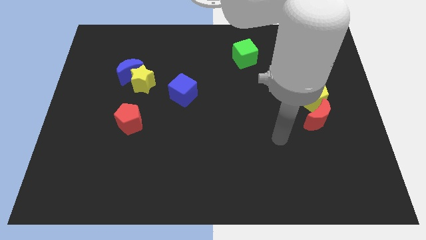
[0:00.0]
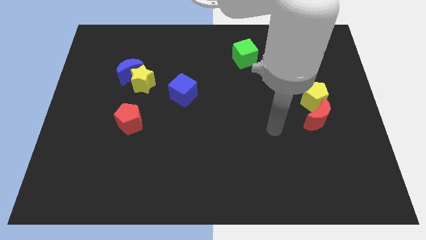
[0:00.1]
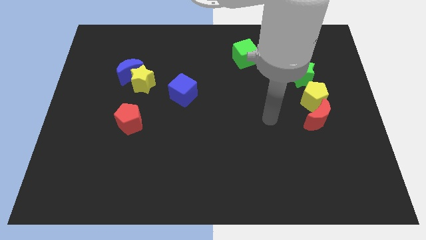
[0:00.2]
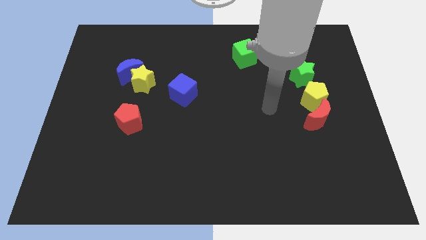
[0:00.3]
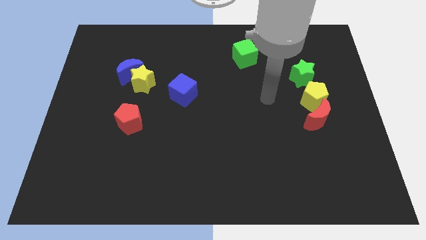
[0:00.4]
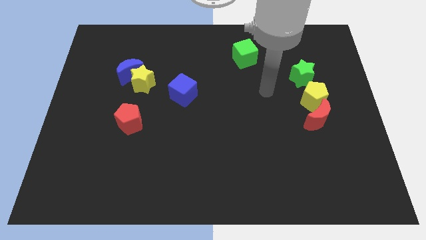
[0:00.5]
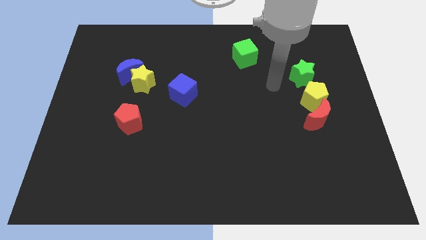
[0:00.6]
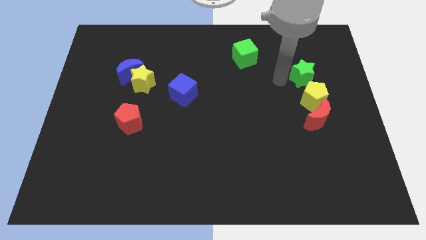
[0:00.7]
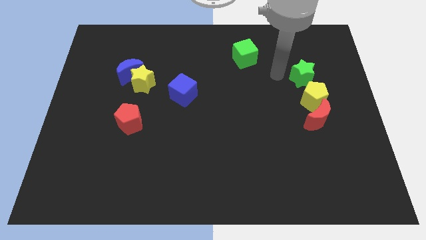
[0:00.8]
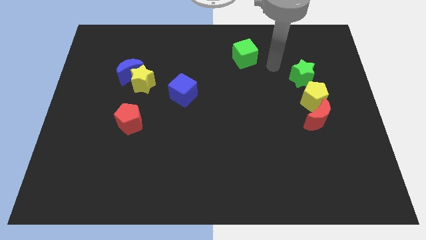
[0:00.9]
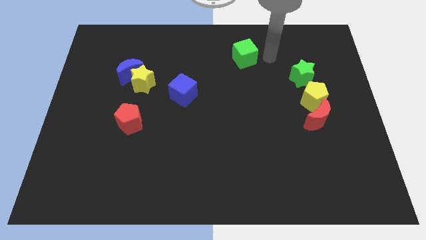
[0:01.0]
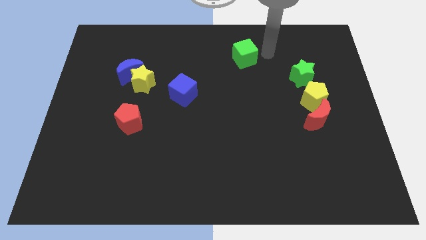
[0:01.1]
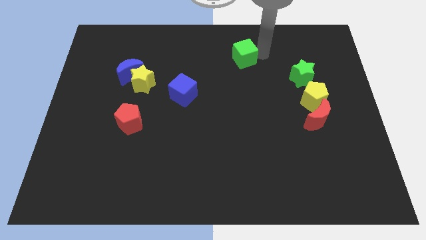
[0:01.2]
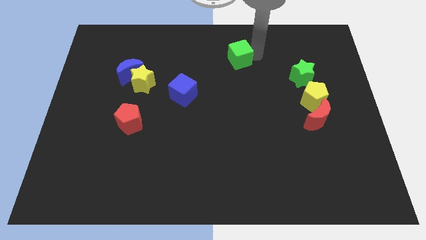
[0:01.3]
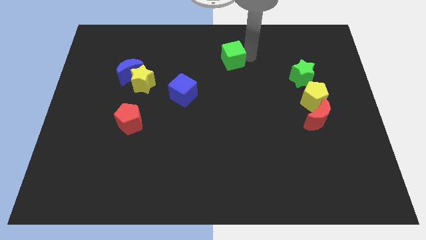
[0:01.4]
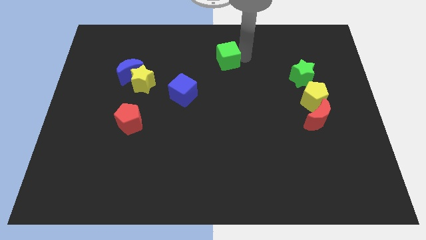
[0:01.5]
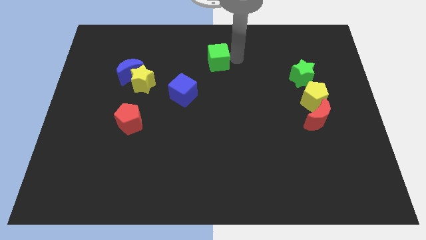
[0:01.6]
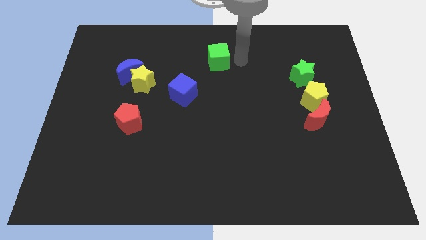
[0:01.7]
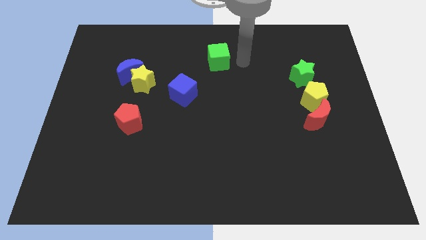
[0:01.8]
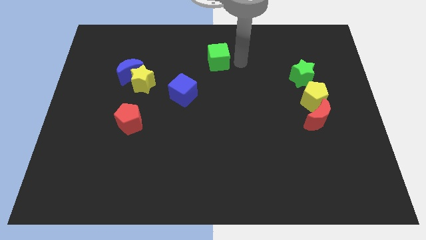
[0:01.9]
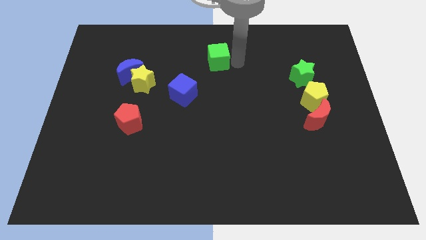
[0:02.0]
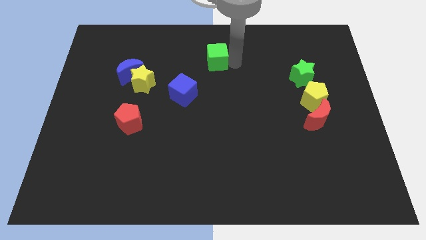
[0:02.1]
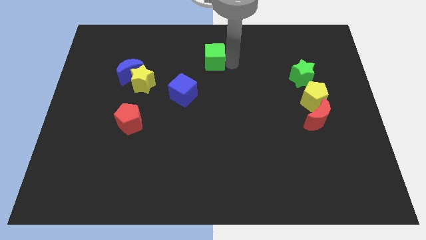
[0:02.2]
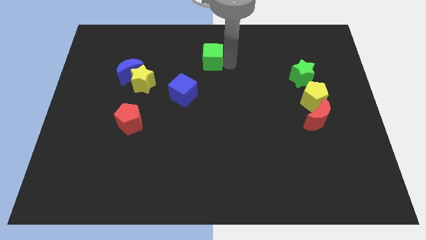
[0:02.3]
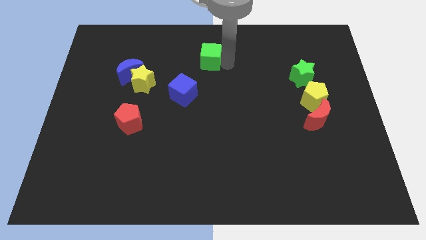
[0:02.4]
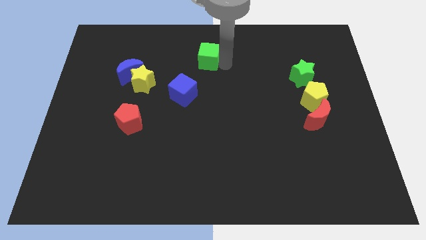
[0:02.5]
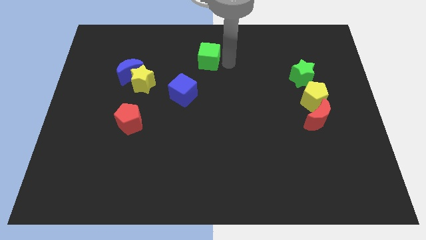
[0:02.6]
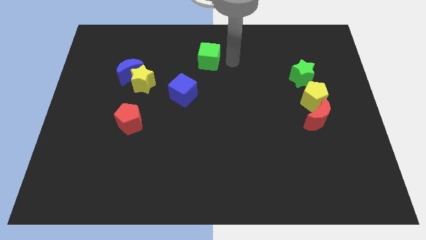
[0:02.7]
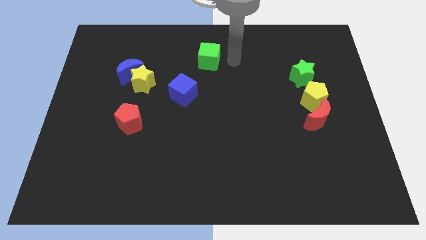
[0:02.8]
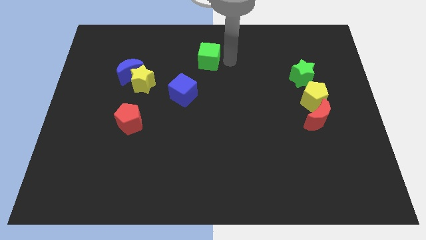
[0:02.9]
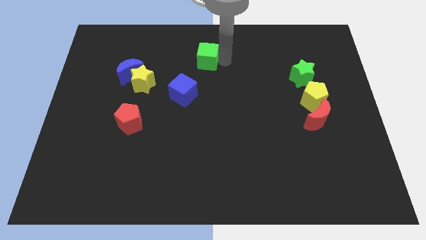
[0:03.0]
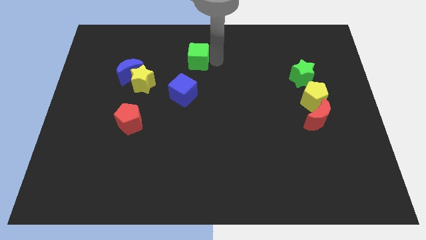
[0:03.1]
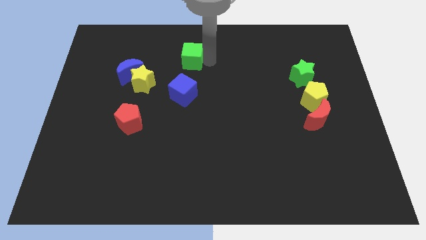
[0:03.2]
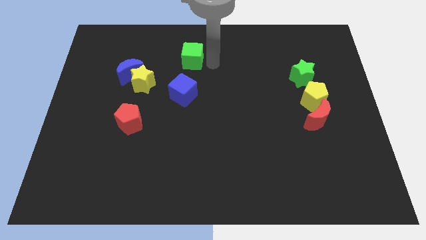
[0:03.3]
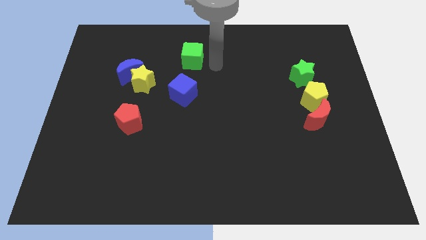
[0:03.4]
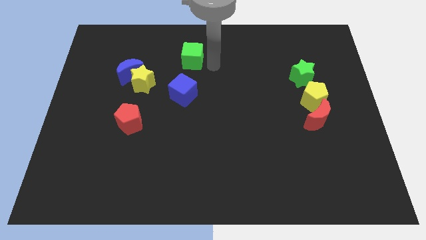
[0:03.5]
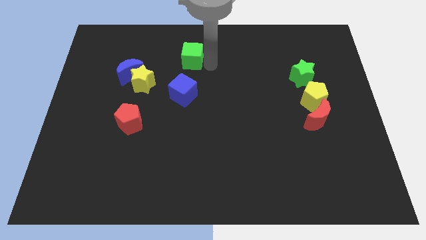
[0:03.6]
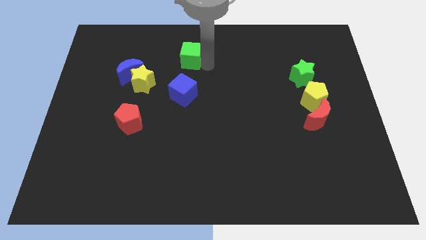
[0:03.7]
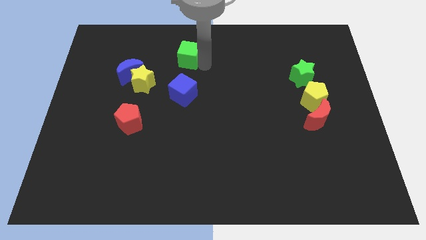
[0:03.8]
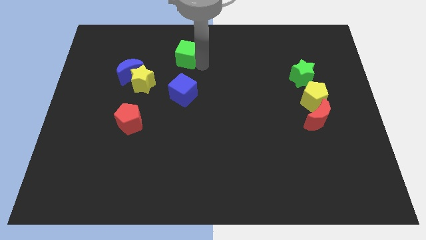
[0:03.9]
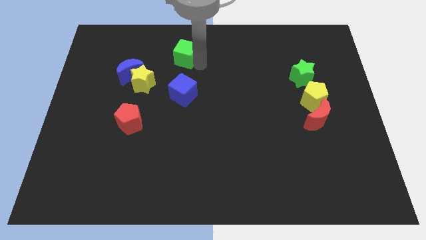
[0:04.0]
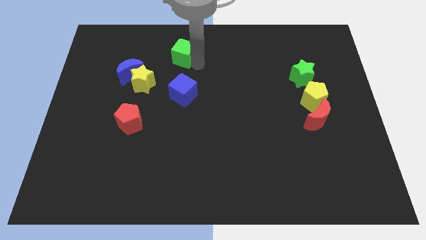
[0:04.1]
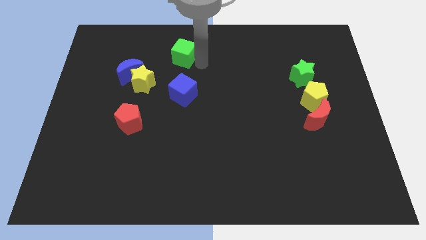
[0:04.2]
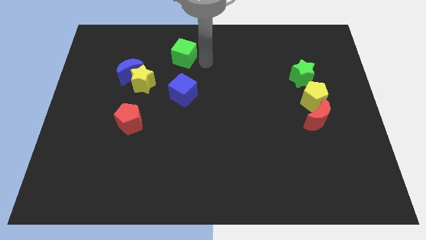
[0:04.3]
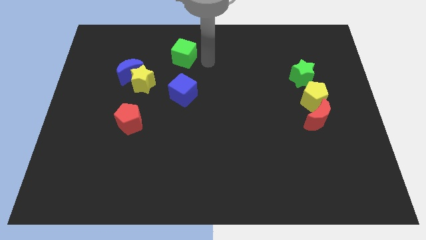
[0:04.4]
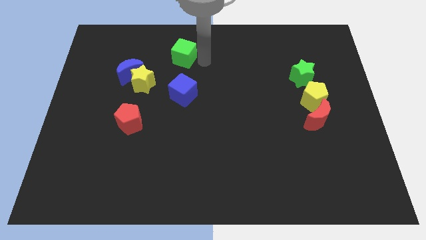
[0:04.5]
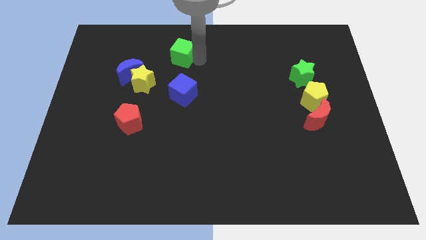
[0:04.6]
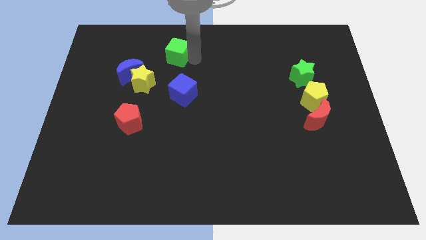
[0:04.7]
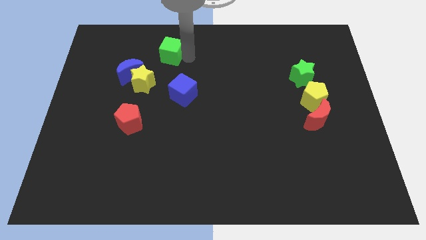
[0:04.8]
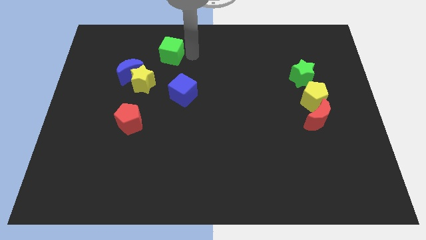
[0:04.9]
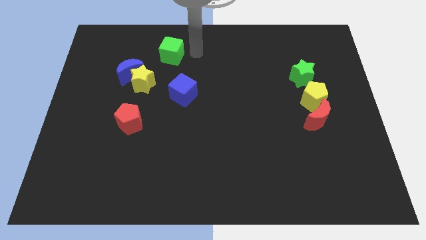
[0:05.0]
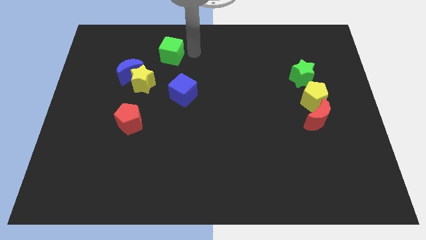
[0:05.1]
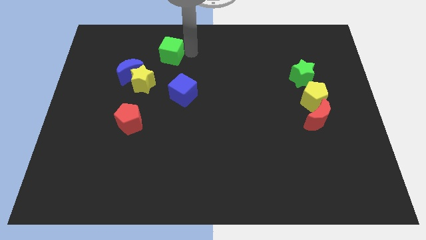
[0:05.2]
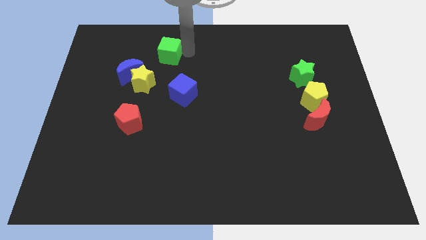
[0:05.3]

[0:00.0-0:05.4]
push the green cube to the left

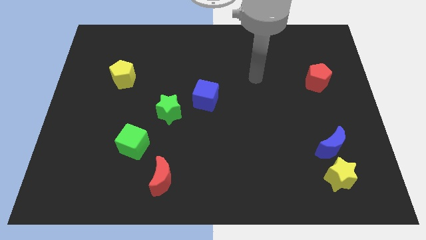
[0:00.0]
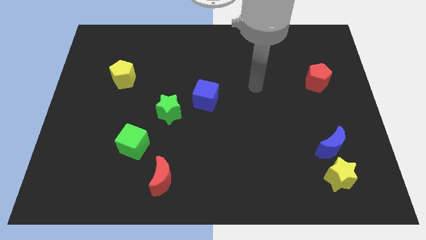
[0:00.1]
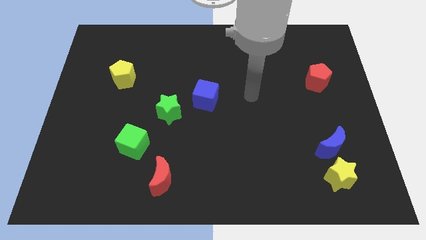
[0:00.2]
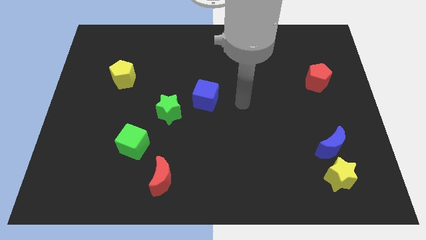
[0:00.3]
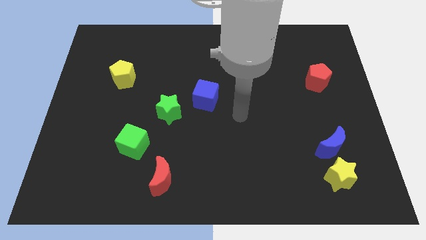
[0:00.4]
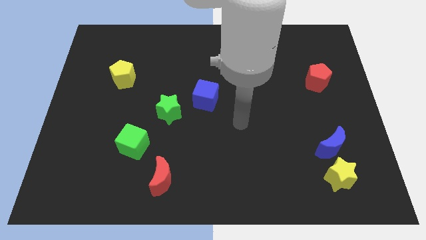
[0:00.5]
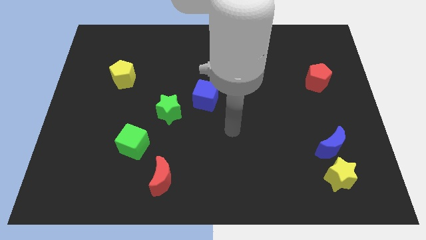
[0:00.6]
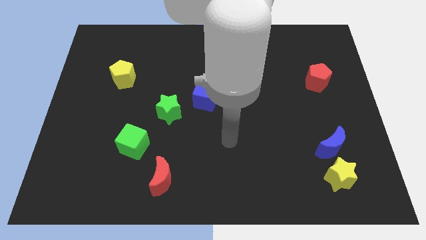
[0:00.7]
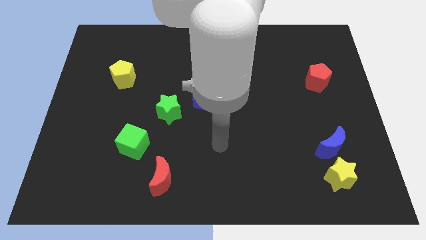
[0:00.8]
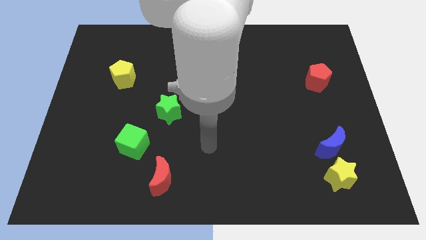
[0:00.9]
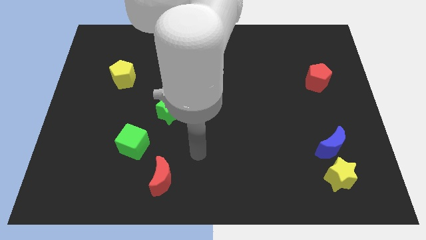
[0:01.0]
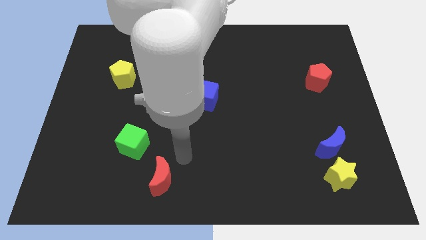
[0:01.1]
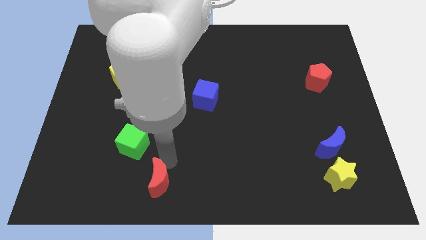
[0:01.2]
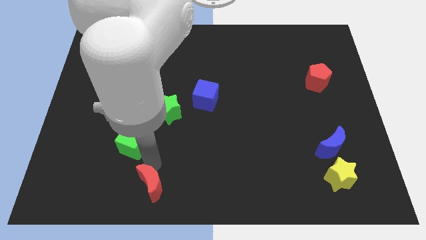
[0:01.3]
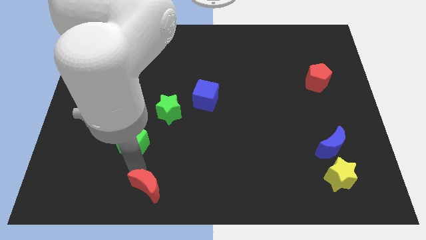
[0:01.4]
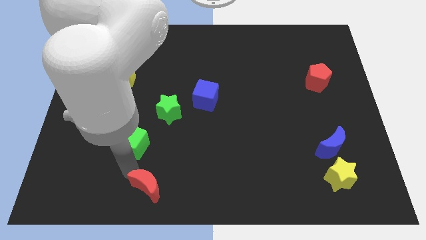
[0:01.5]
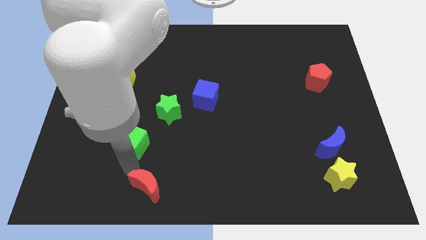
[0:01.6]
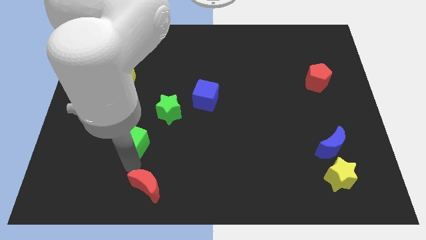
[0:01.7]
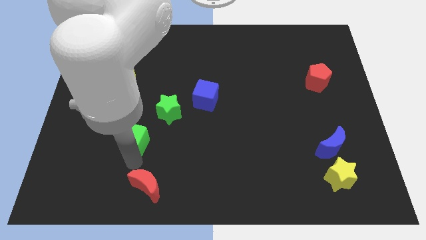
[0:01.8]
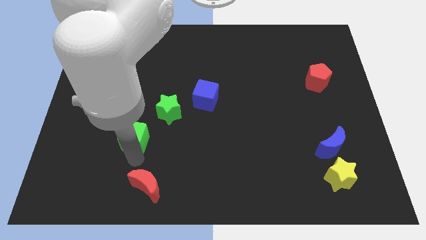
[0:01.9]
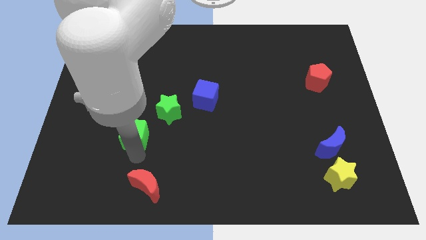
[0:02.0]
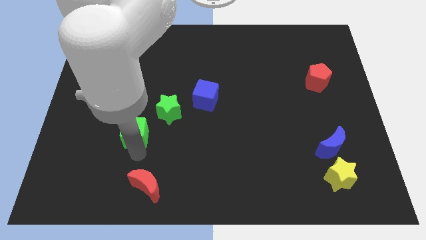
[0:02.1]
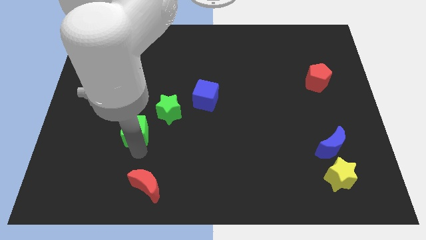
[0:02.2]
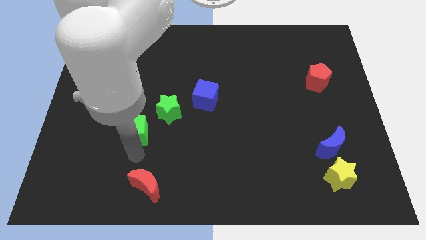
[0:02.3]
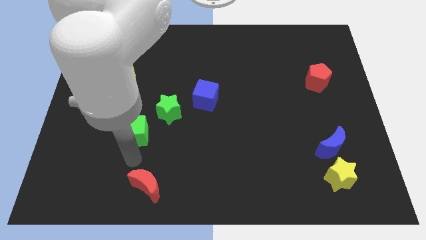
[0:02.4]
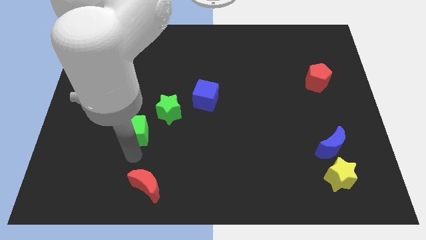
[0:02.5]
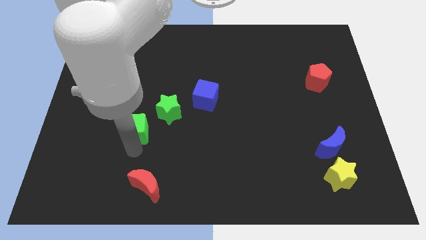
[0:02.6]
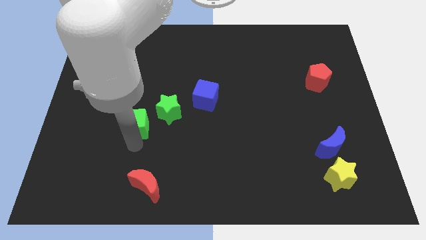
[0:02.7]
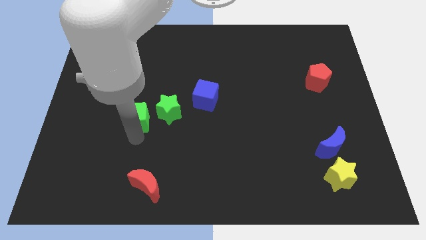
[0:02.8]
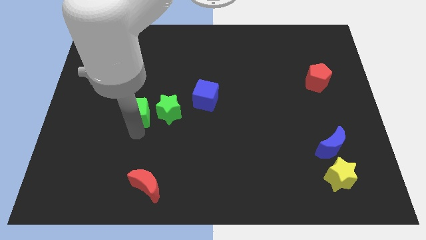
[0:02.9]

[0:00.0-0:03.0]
move the green cube up slightly
